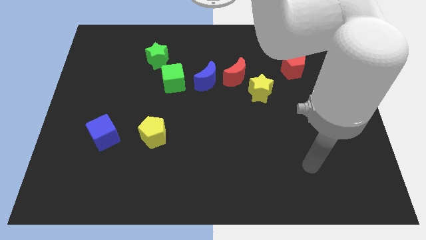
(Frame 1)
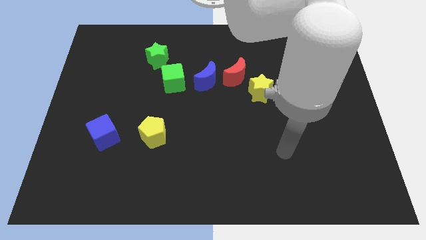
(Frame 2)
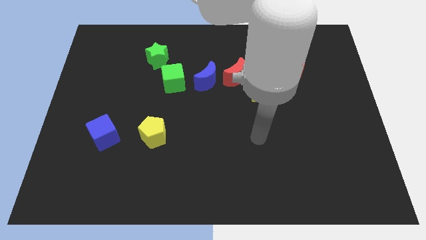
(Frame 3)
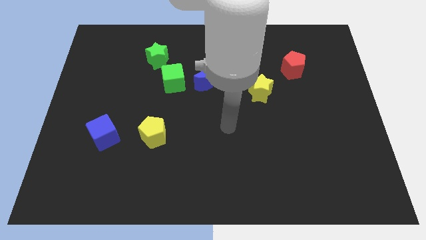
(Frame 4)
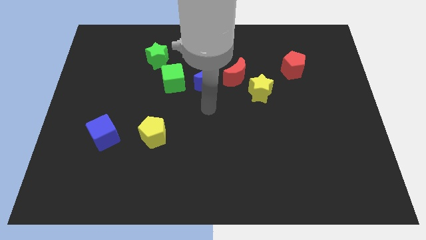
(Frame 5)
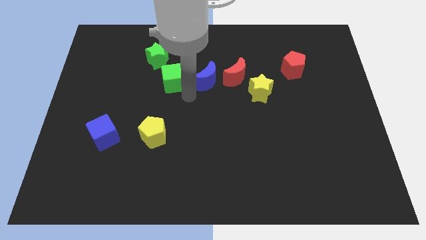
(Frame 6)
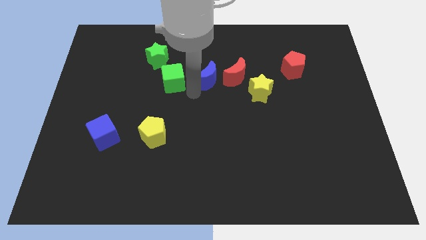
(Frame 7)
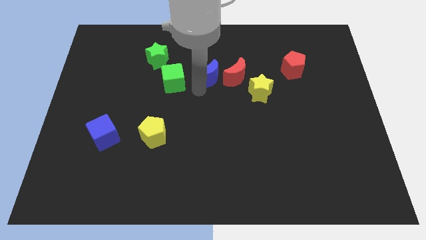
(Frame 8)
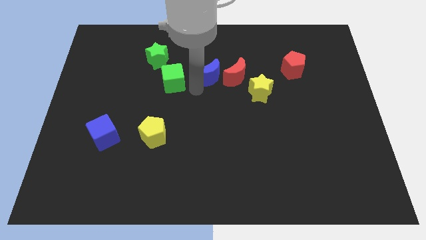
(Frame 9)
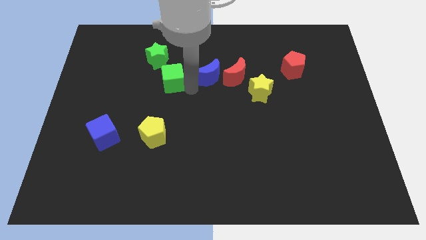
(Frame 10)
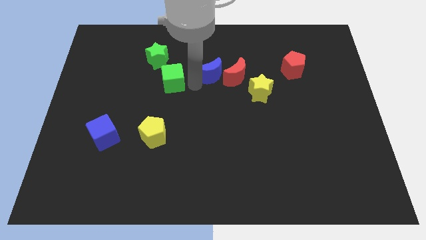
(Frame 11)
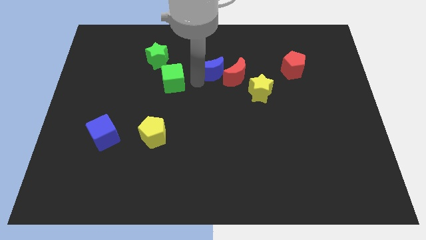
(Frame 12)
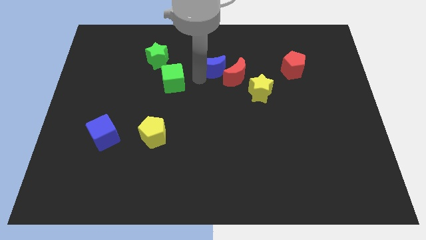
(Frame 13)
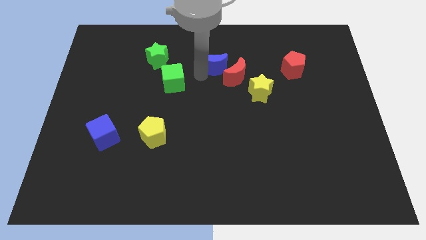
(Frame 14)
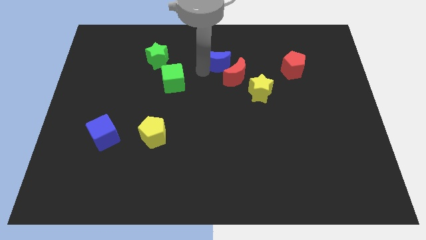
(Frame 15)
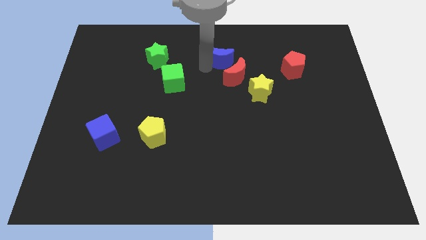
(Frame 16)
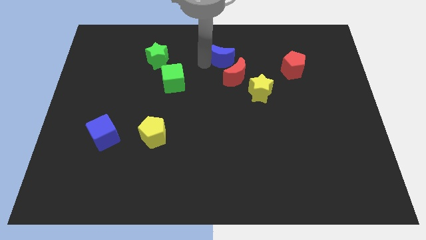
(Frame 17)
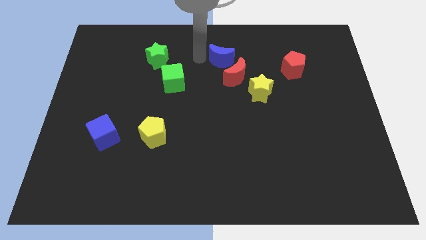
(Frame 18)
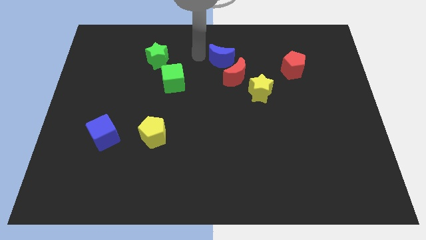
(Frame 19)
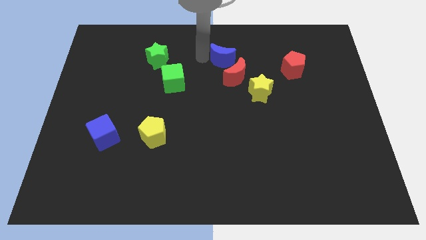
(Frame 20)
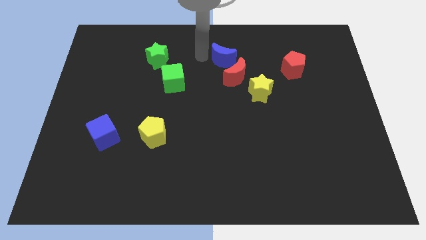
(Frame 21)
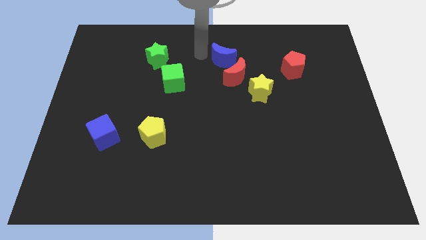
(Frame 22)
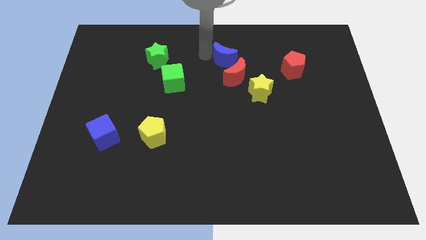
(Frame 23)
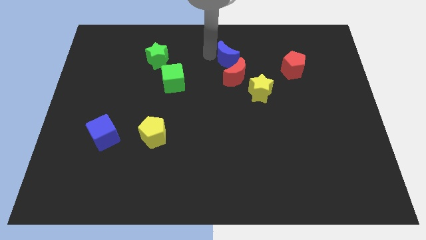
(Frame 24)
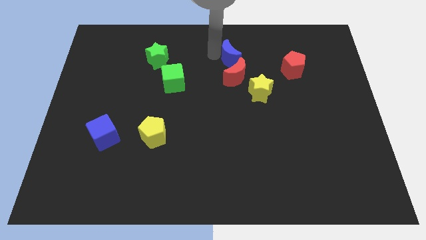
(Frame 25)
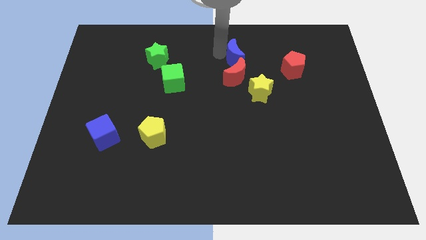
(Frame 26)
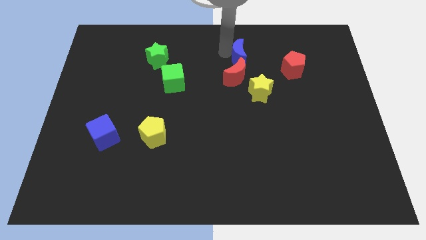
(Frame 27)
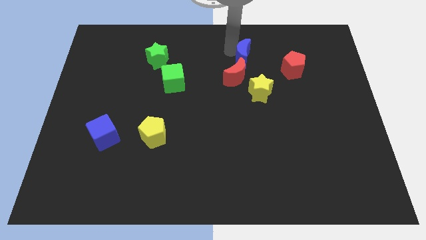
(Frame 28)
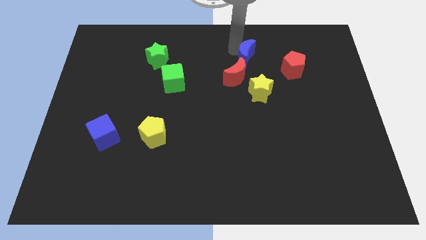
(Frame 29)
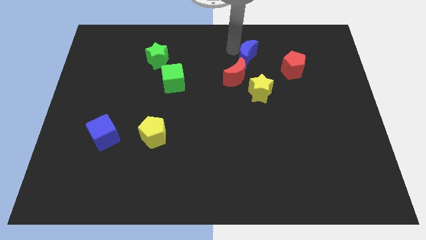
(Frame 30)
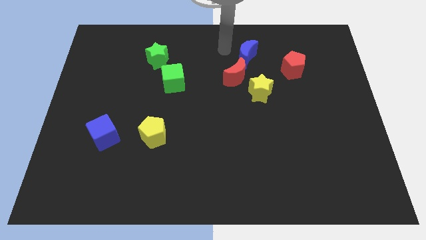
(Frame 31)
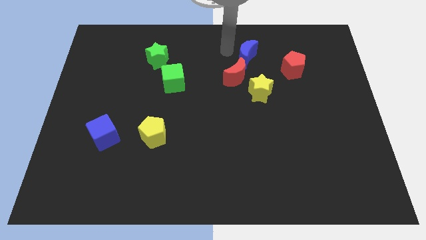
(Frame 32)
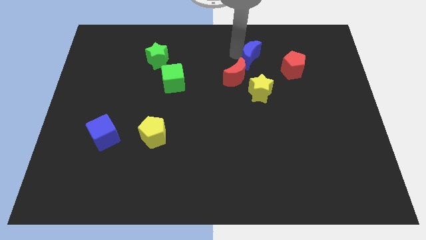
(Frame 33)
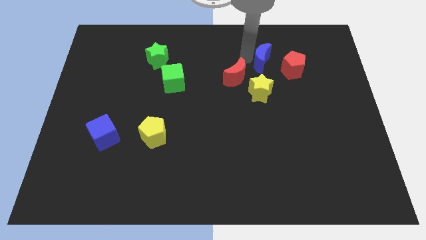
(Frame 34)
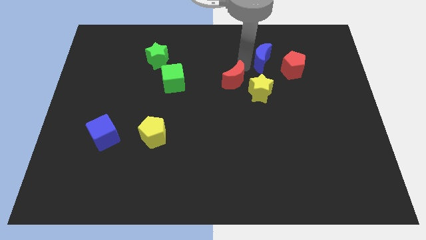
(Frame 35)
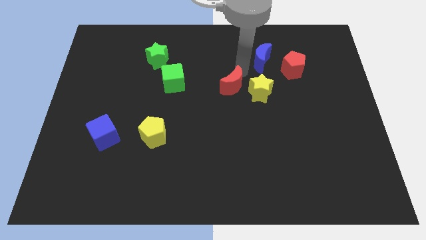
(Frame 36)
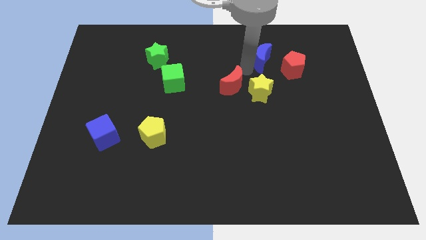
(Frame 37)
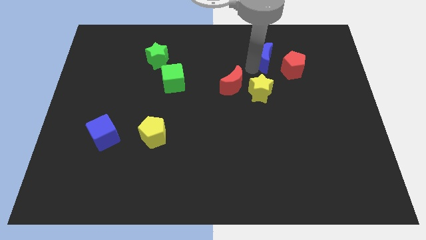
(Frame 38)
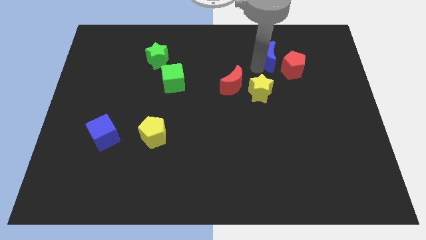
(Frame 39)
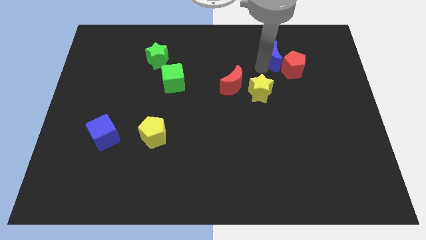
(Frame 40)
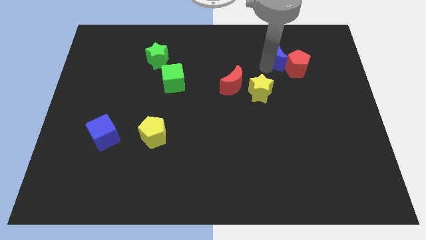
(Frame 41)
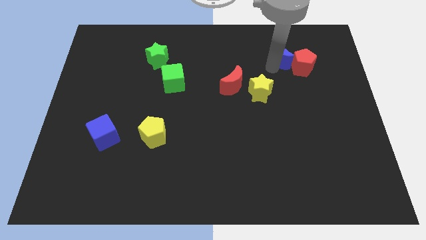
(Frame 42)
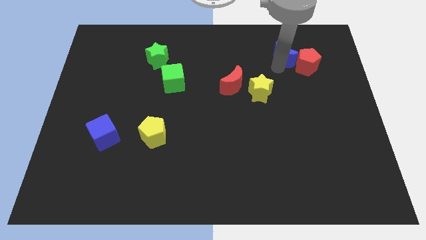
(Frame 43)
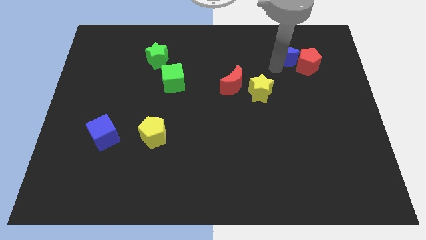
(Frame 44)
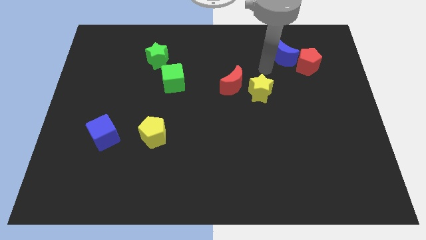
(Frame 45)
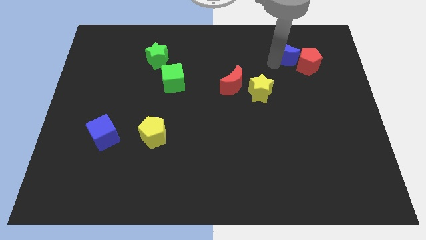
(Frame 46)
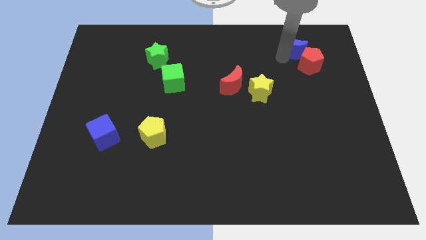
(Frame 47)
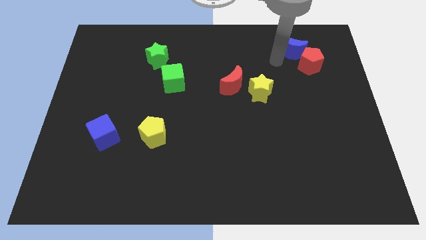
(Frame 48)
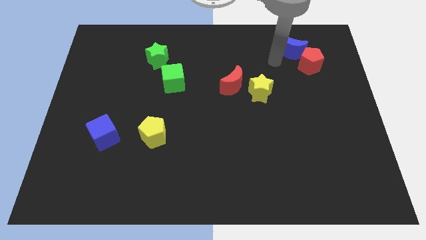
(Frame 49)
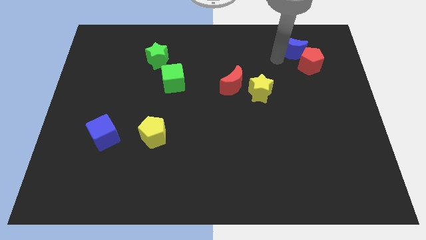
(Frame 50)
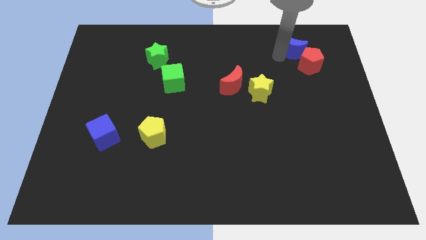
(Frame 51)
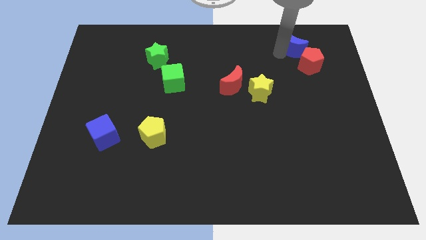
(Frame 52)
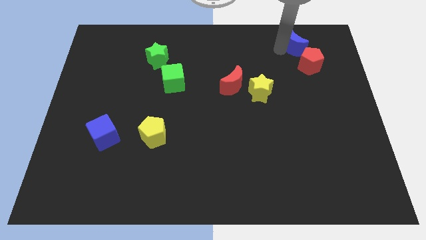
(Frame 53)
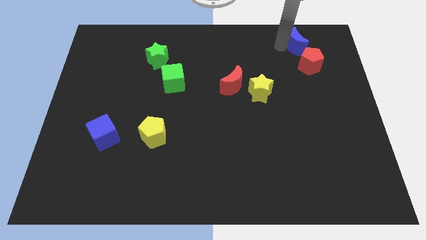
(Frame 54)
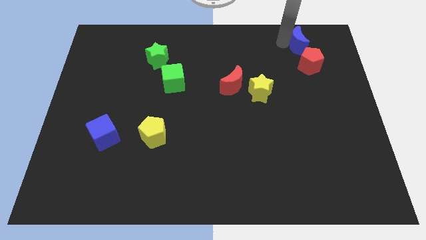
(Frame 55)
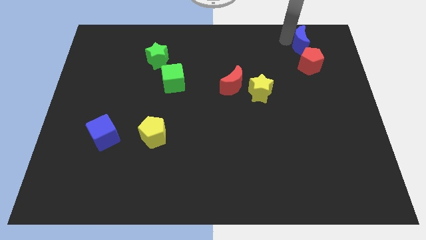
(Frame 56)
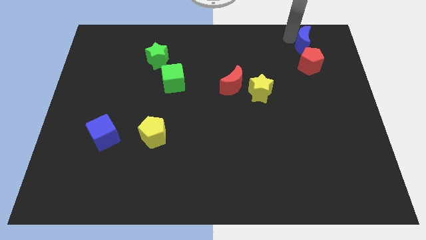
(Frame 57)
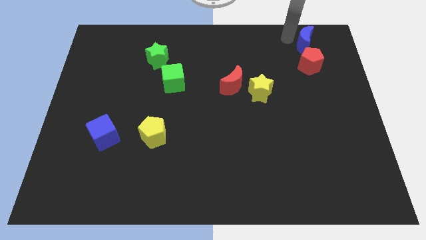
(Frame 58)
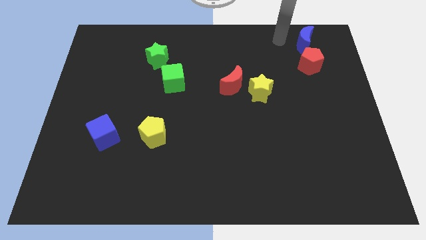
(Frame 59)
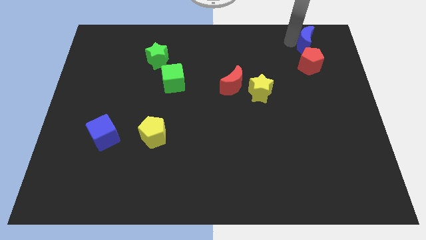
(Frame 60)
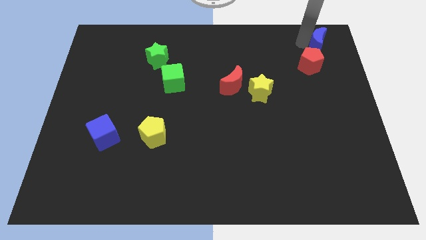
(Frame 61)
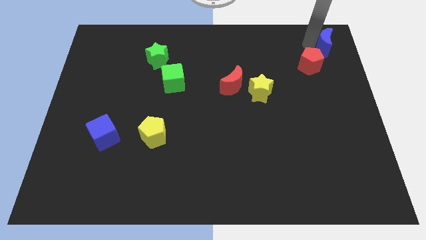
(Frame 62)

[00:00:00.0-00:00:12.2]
move the blue moon to the top right

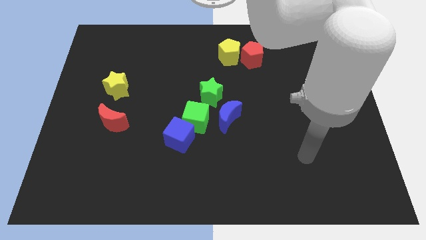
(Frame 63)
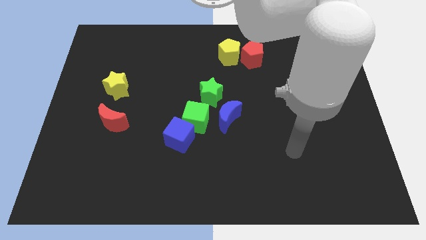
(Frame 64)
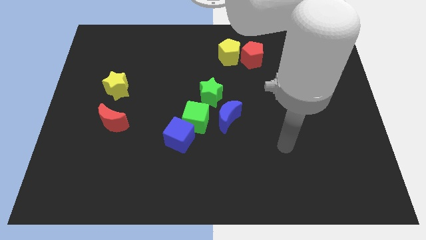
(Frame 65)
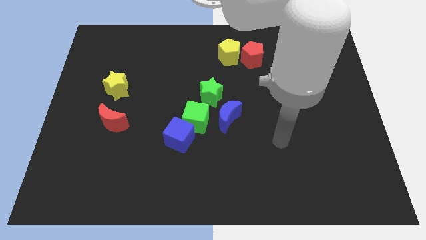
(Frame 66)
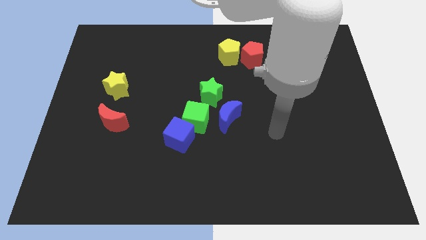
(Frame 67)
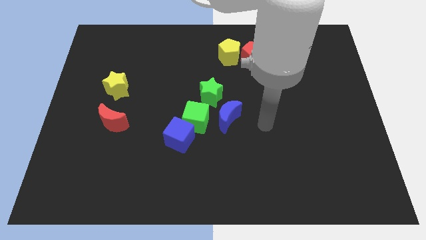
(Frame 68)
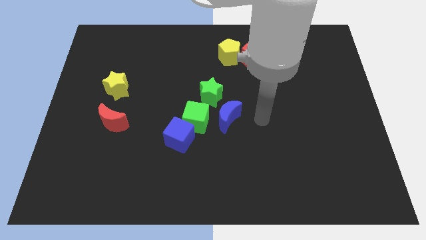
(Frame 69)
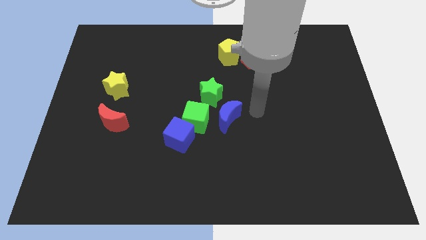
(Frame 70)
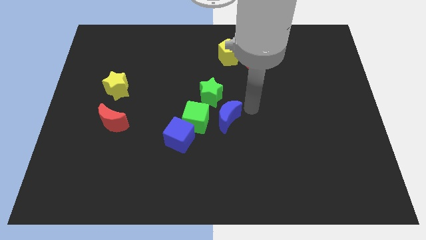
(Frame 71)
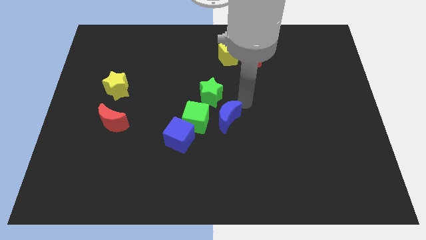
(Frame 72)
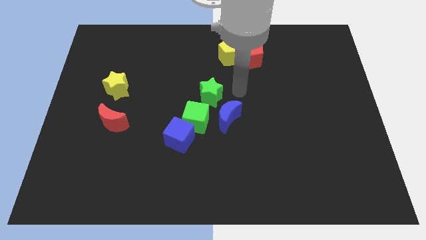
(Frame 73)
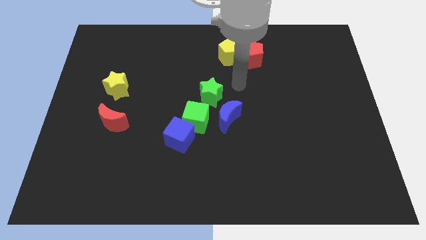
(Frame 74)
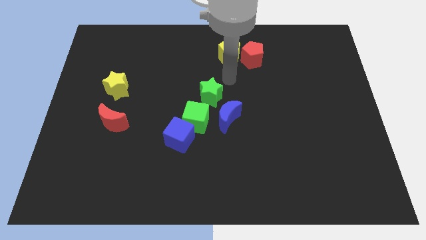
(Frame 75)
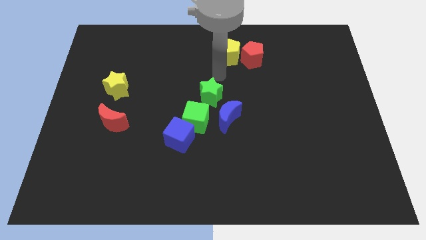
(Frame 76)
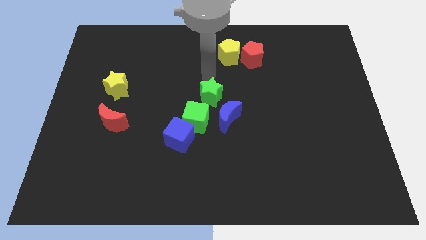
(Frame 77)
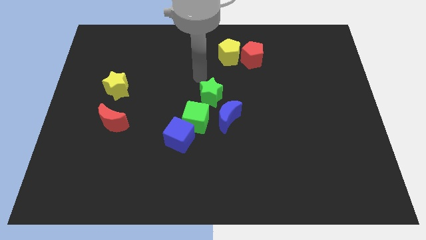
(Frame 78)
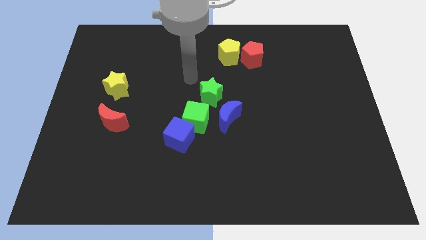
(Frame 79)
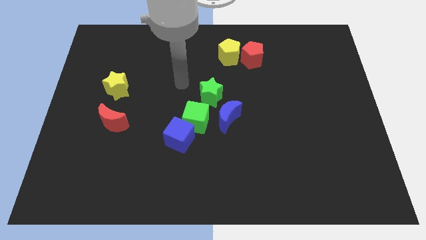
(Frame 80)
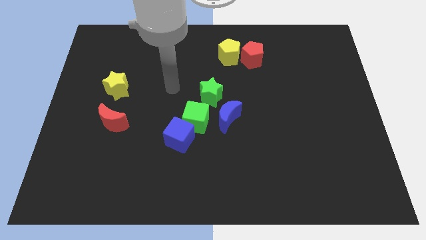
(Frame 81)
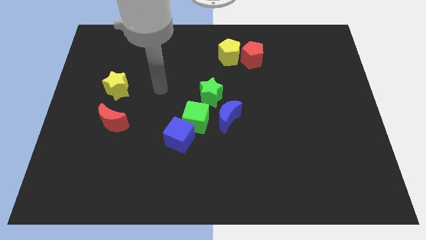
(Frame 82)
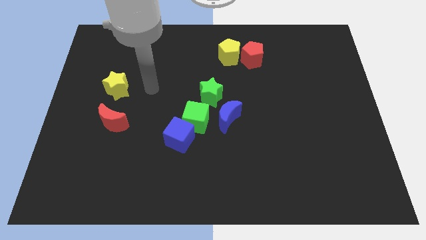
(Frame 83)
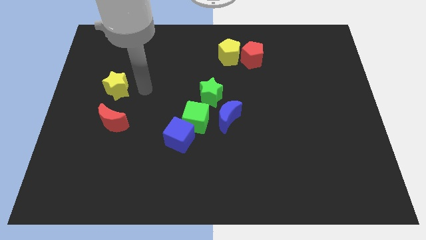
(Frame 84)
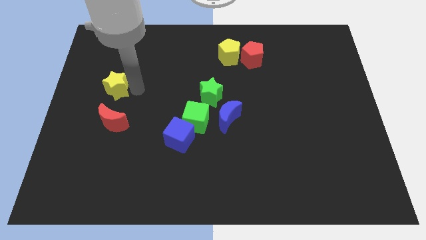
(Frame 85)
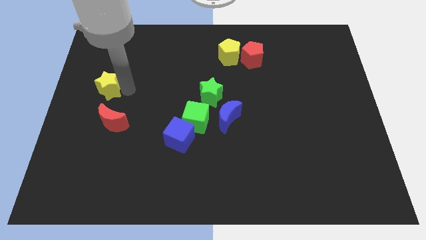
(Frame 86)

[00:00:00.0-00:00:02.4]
slide the yellow star to the left side
